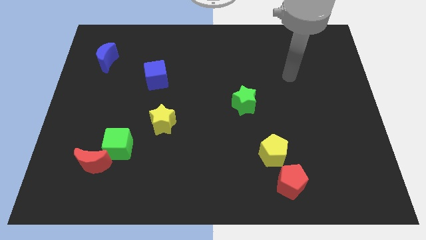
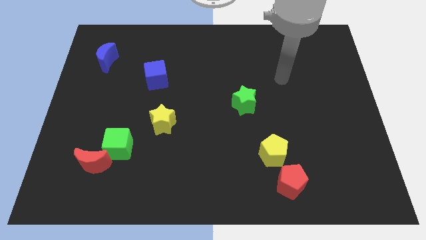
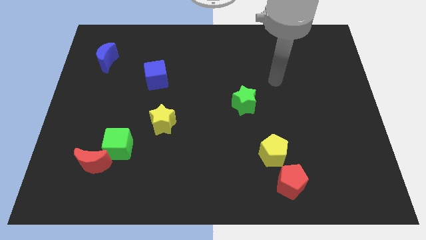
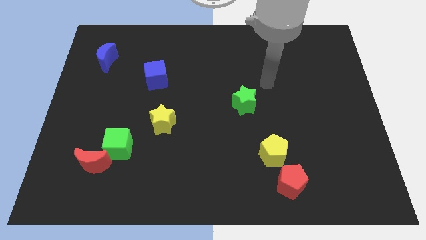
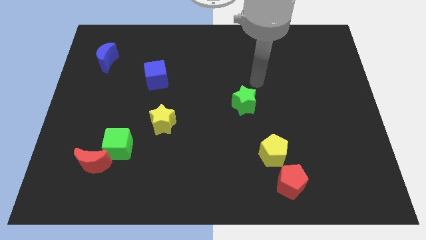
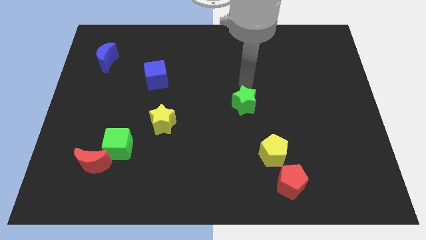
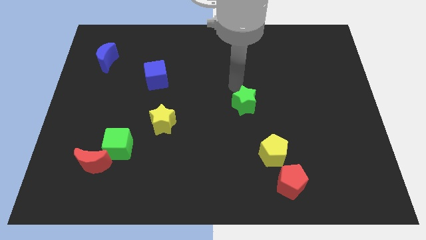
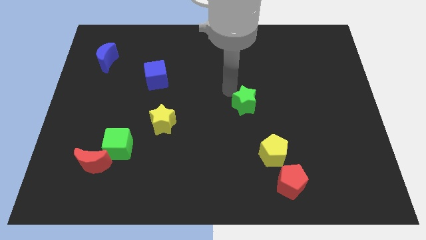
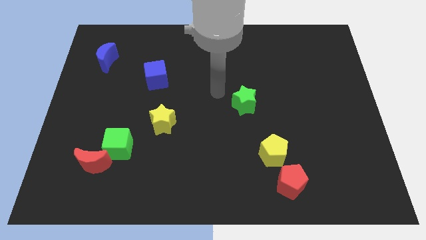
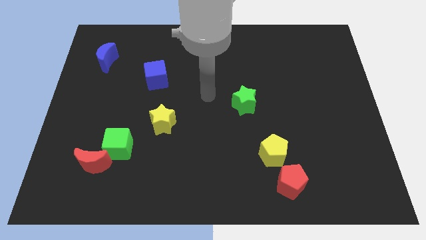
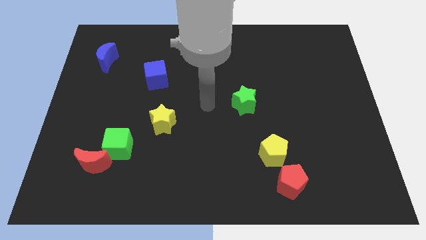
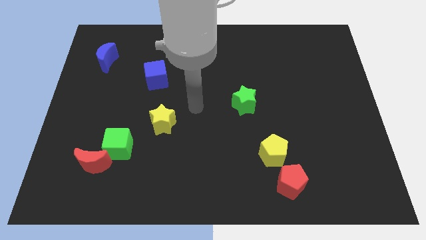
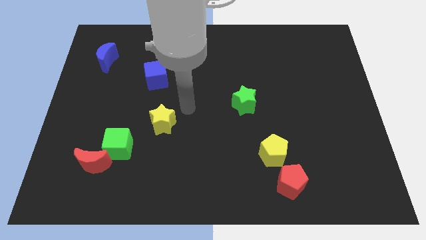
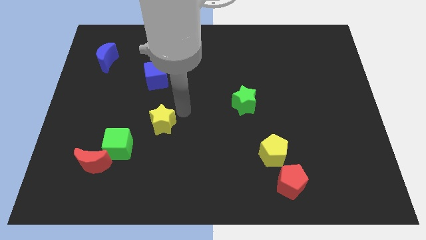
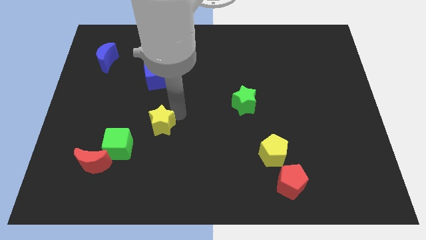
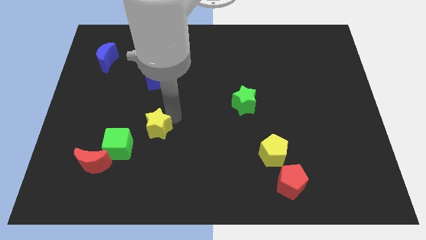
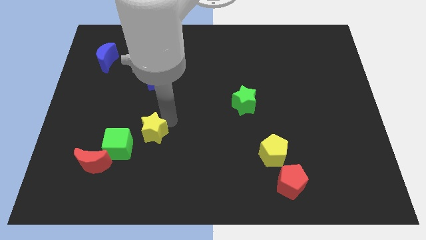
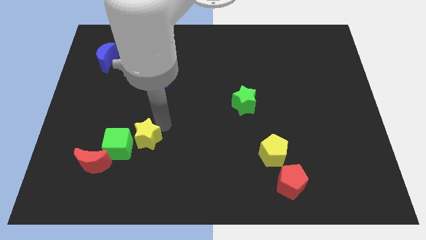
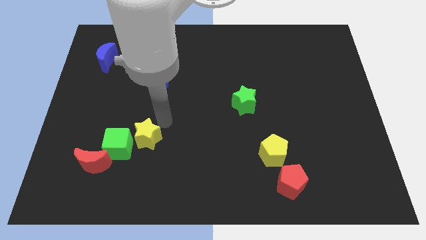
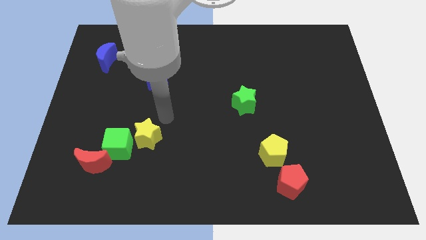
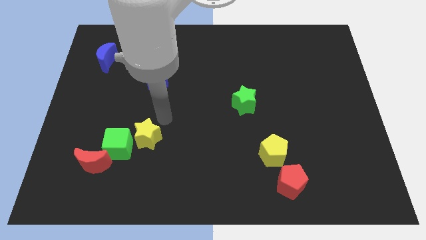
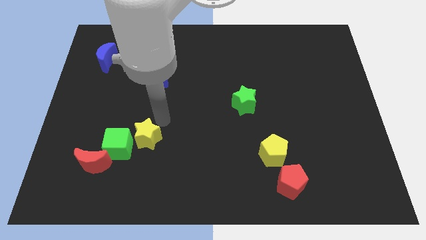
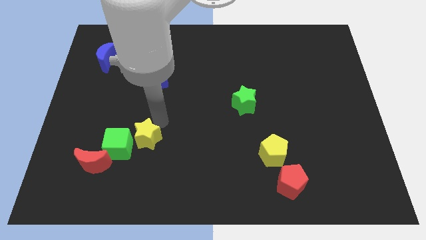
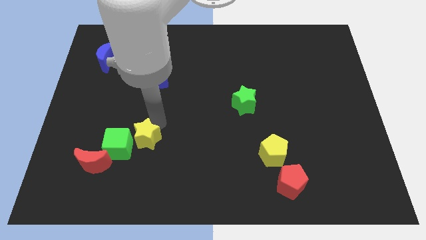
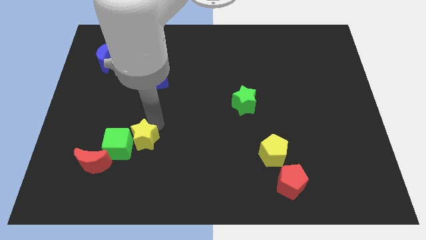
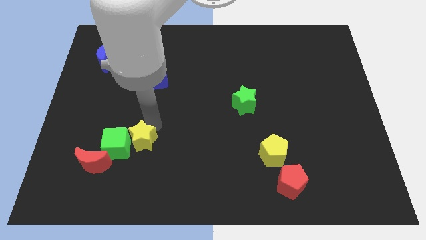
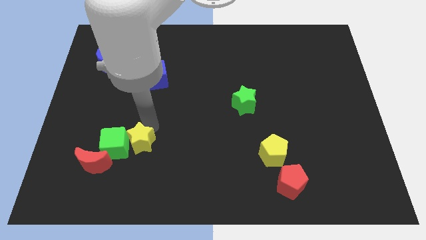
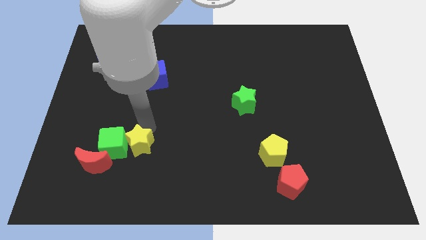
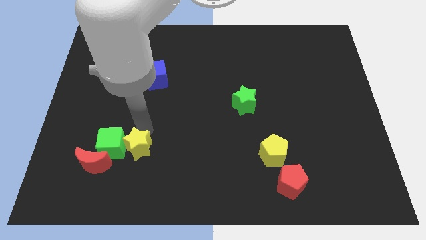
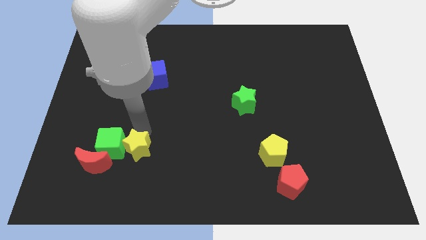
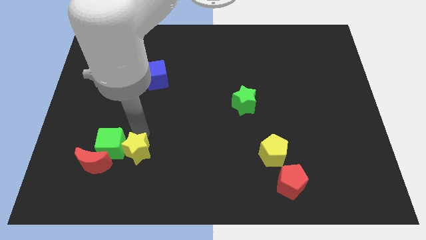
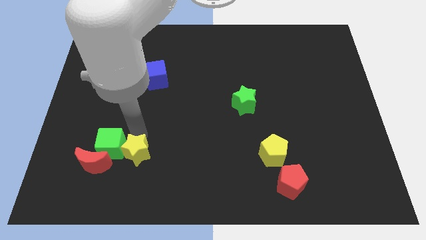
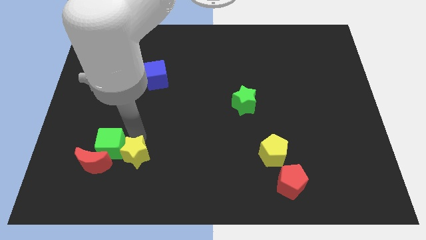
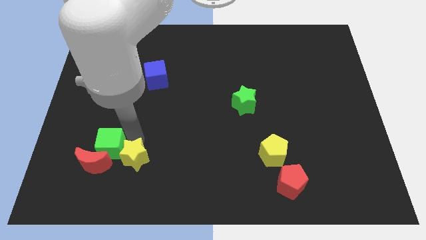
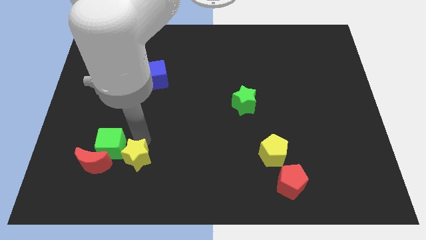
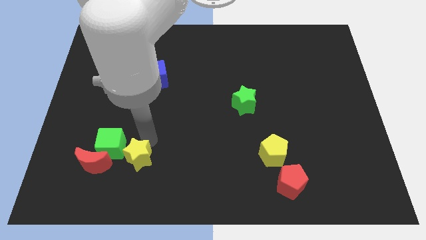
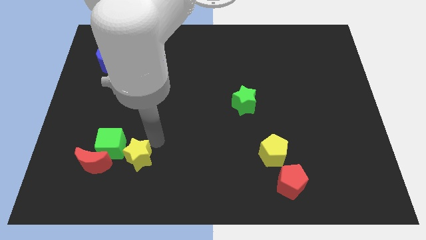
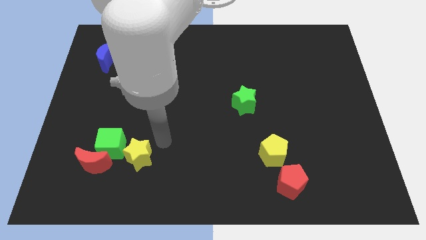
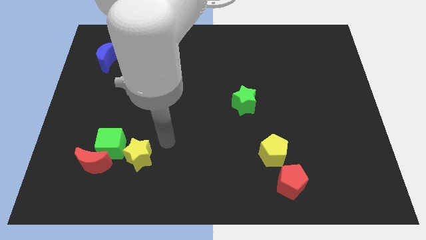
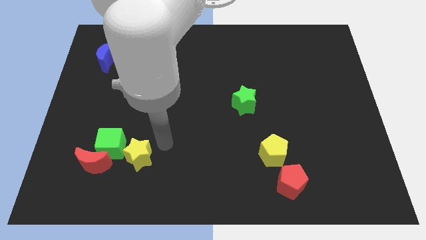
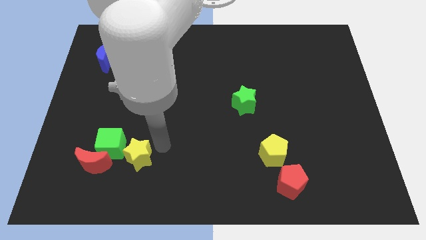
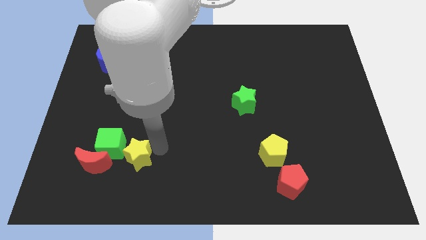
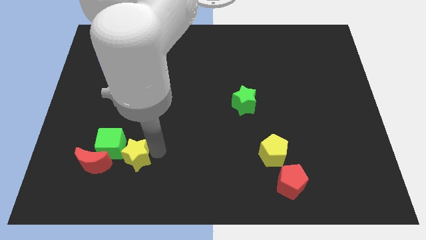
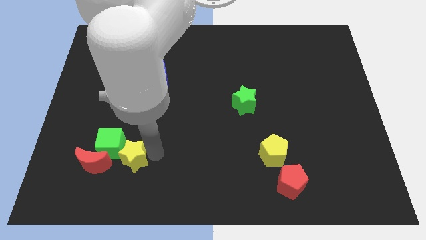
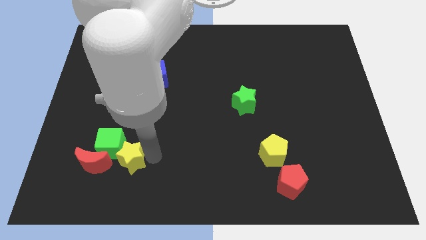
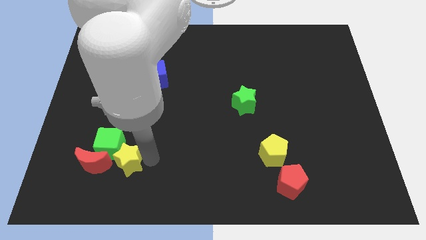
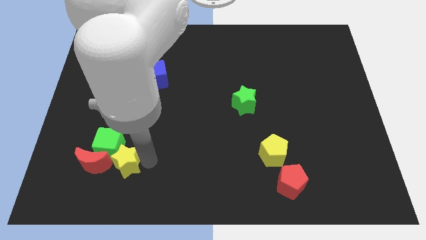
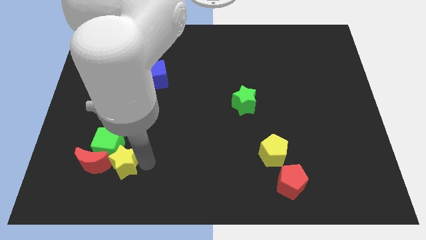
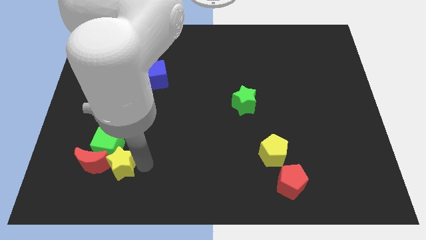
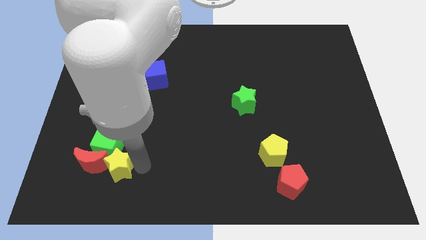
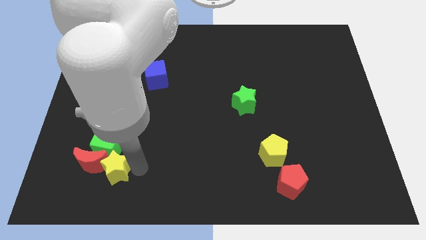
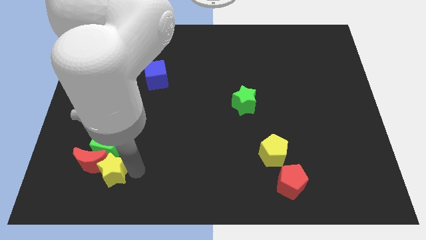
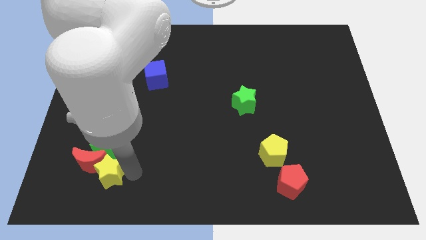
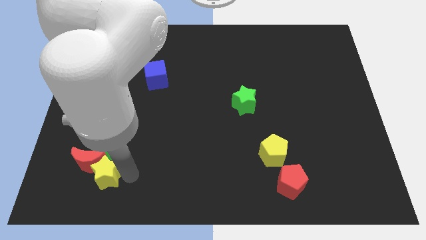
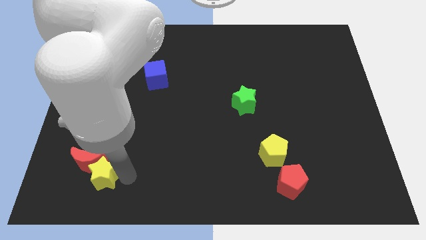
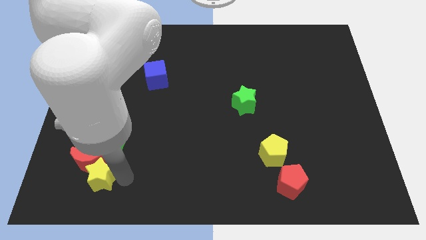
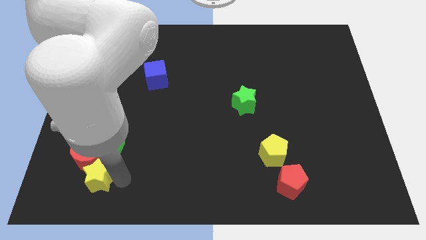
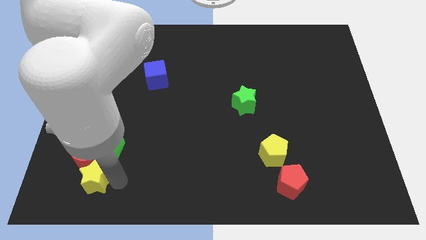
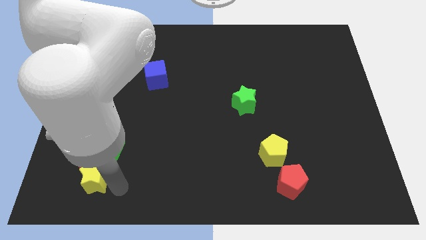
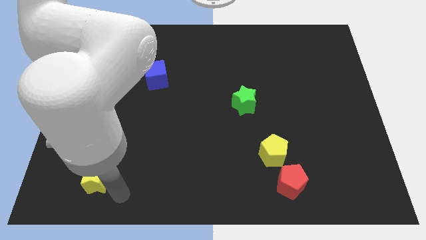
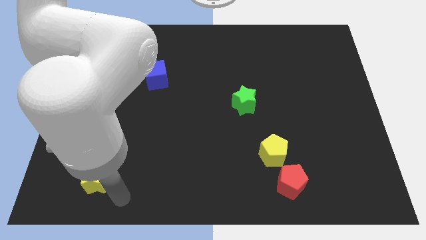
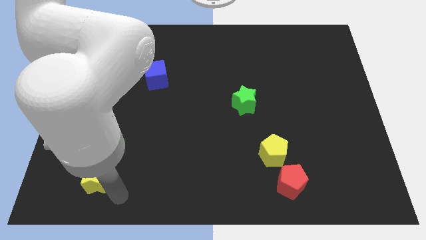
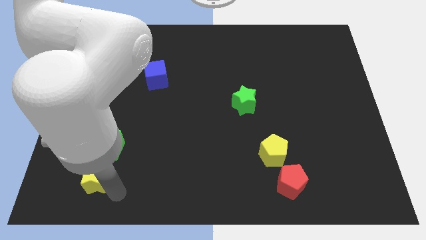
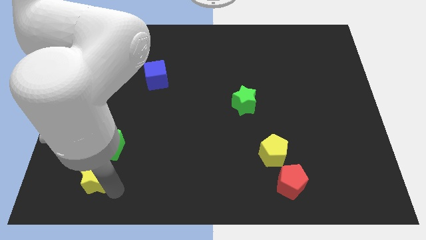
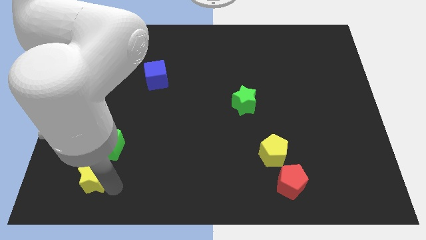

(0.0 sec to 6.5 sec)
slide the yellow star diagonally down and to the left of the green cube

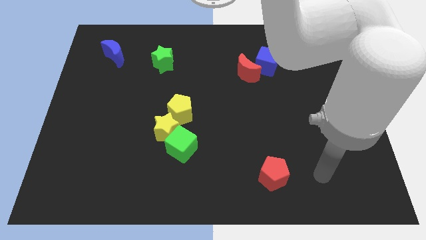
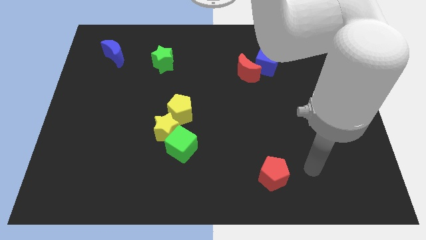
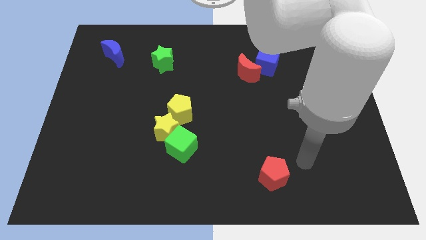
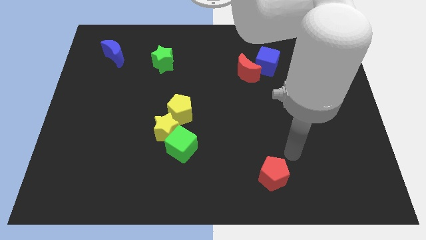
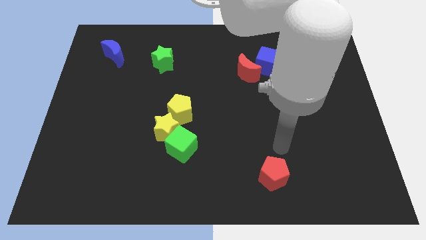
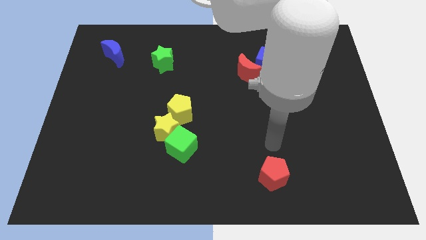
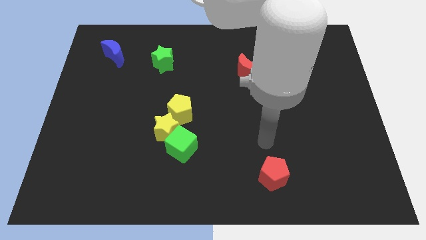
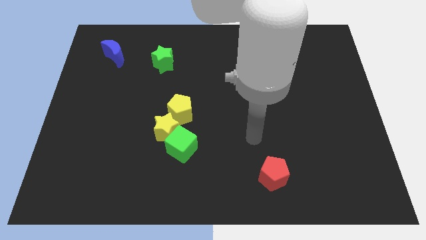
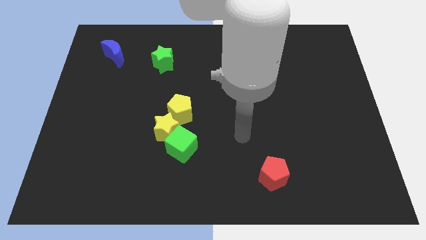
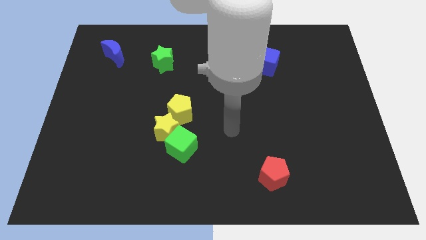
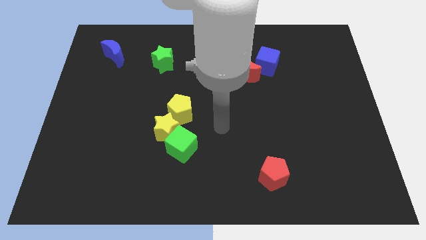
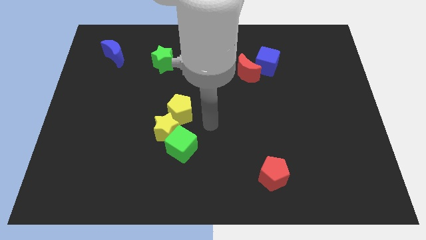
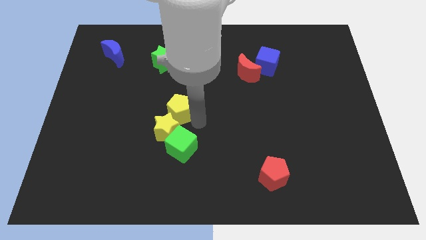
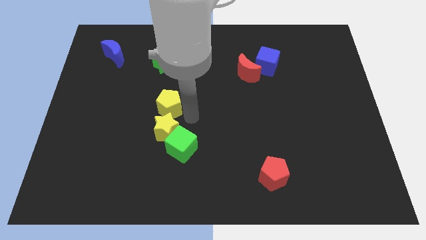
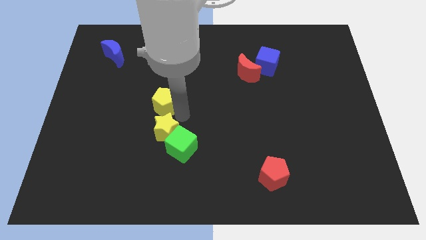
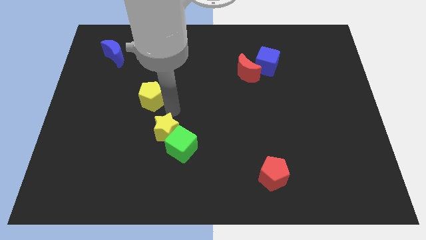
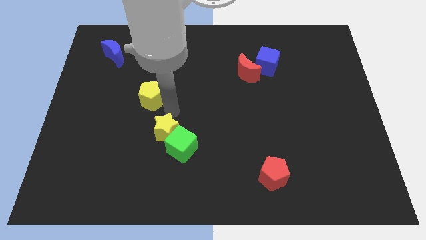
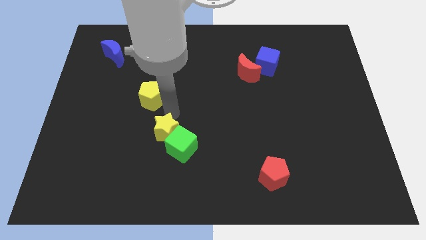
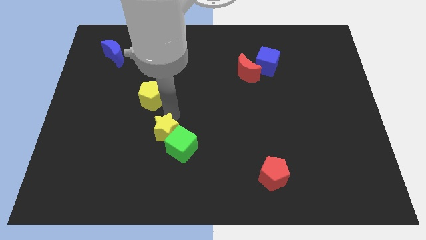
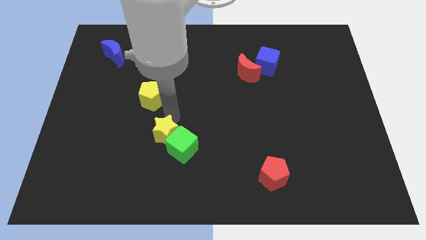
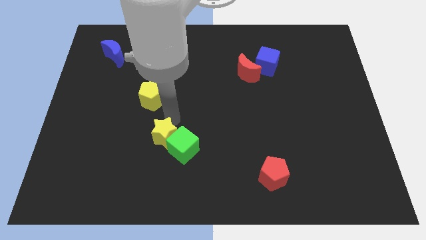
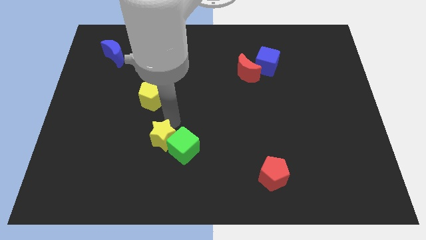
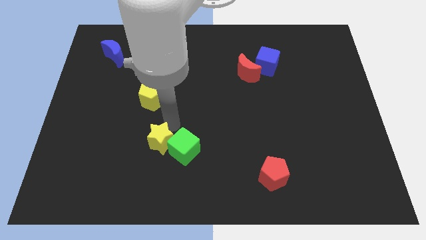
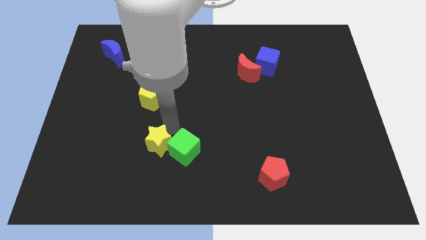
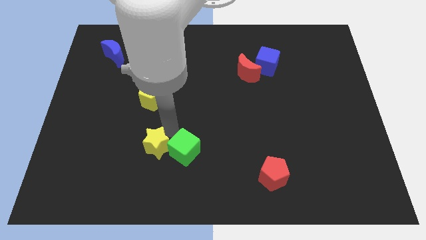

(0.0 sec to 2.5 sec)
put the yellow star to the bottom left side of the green cube
